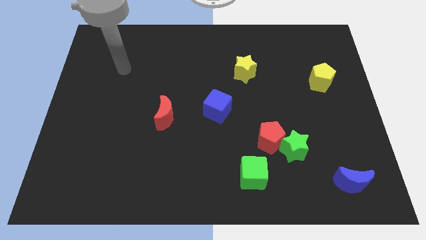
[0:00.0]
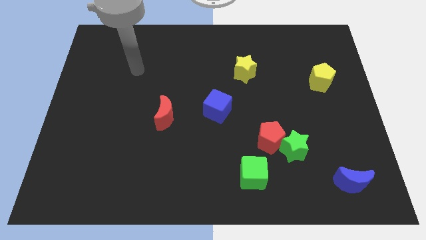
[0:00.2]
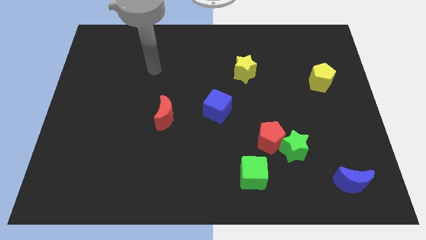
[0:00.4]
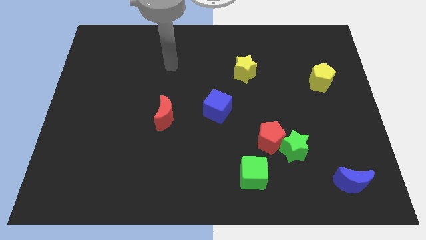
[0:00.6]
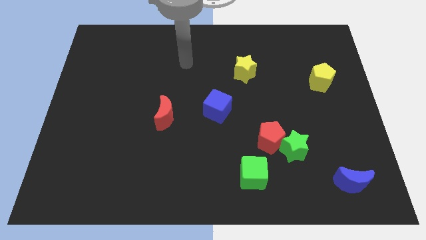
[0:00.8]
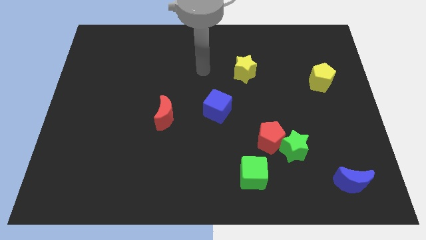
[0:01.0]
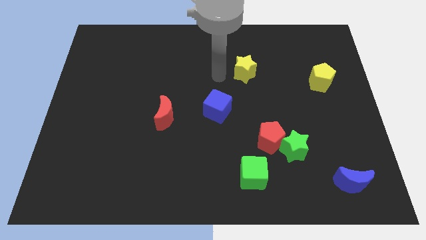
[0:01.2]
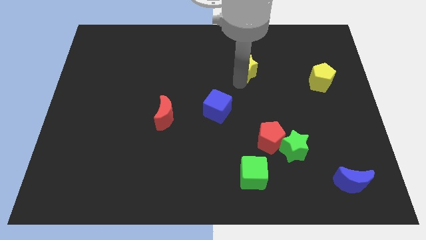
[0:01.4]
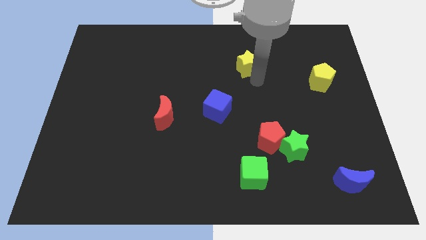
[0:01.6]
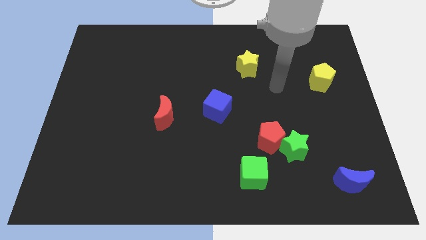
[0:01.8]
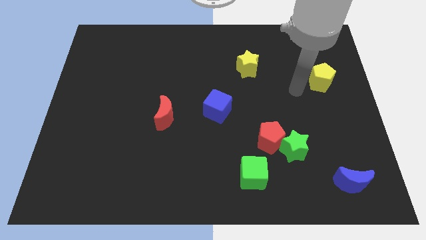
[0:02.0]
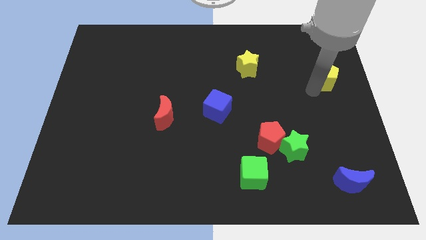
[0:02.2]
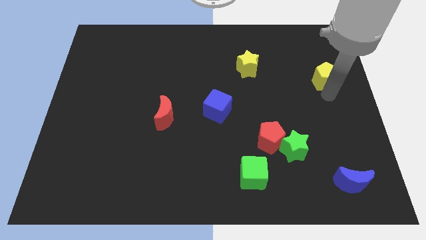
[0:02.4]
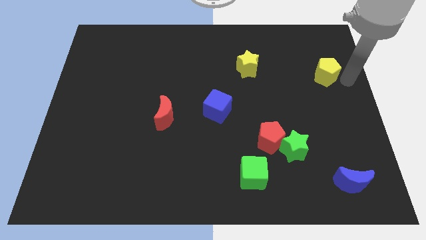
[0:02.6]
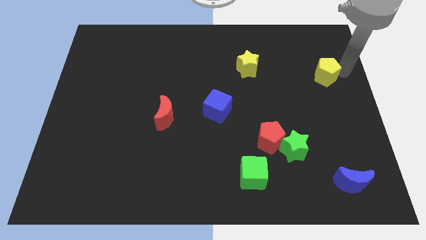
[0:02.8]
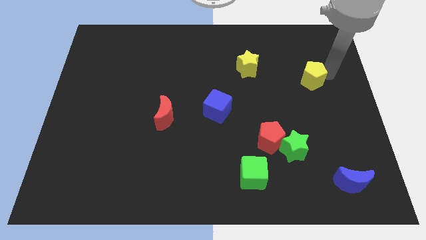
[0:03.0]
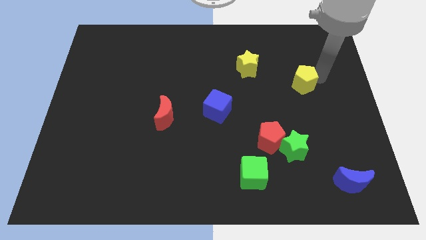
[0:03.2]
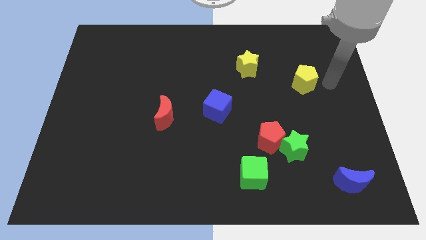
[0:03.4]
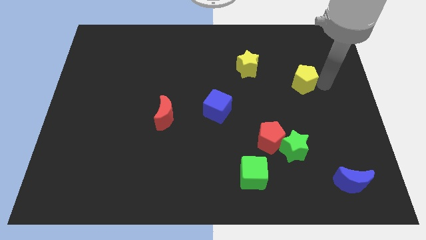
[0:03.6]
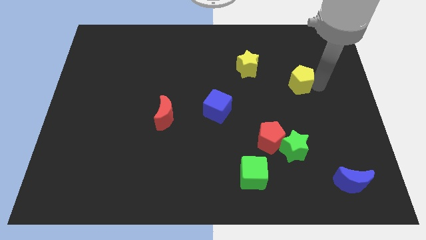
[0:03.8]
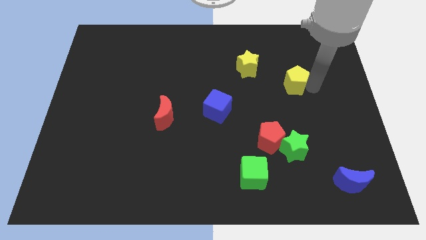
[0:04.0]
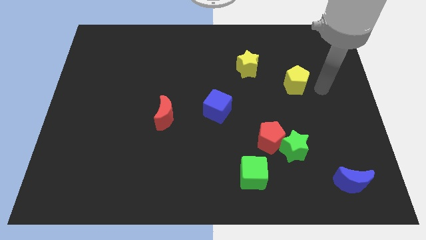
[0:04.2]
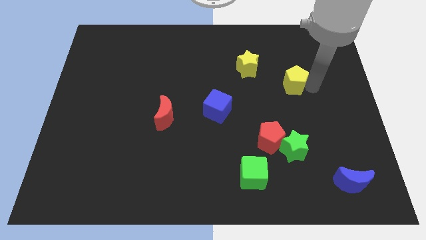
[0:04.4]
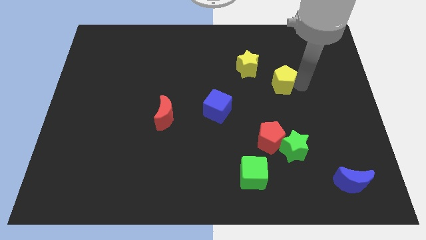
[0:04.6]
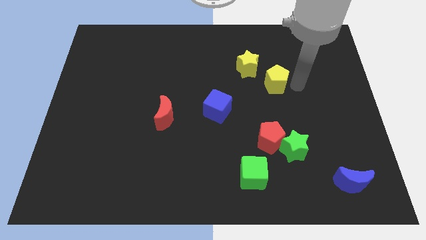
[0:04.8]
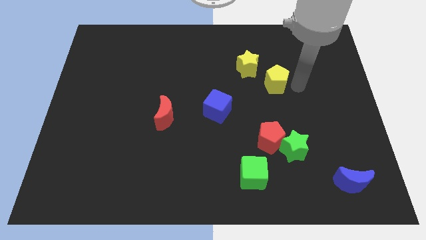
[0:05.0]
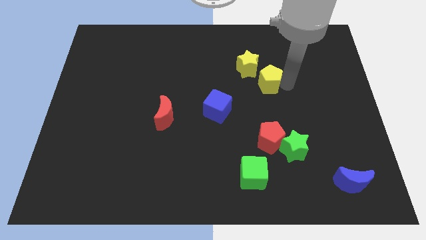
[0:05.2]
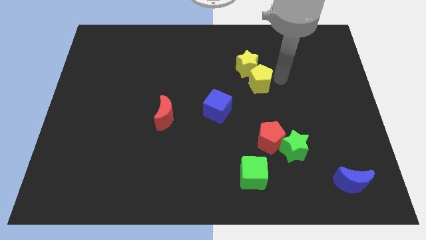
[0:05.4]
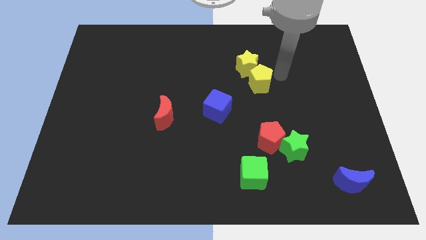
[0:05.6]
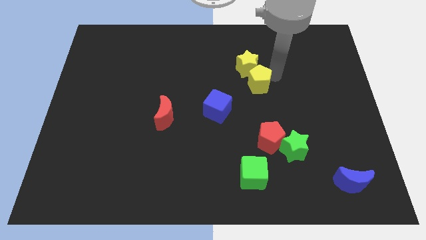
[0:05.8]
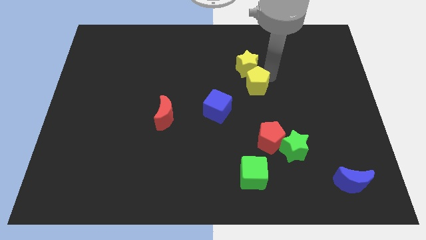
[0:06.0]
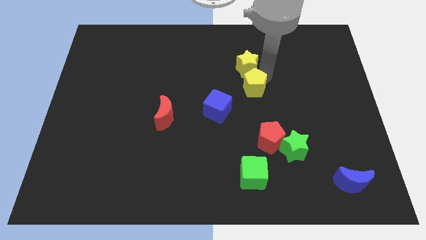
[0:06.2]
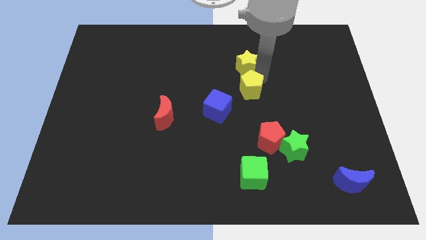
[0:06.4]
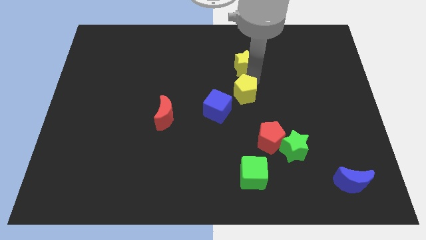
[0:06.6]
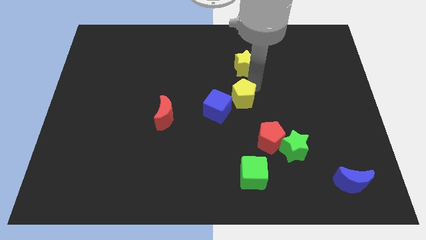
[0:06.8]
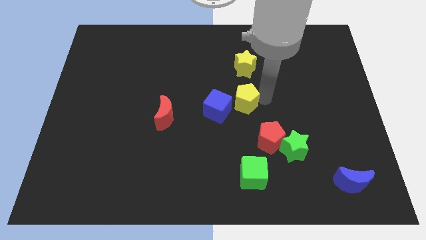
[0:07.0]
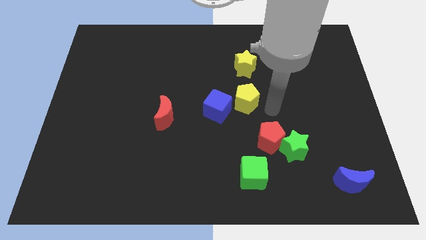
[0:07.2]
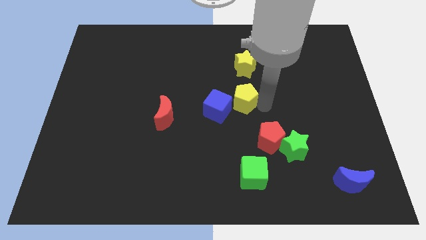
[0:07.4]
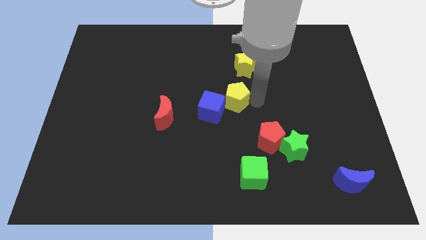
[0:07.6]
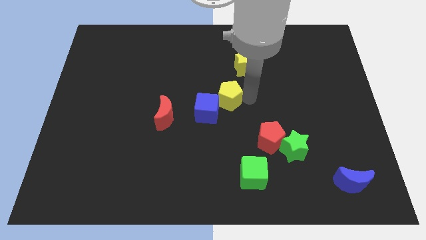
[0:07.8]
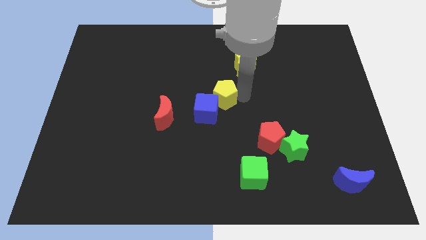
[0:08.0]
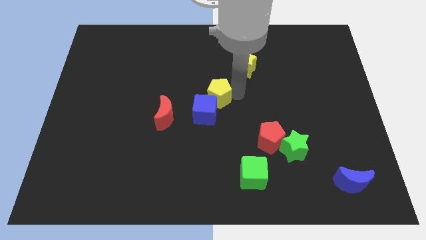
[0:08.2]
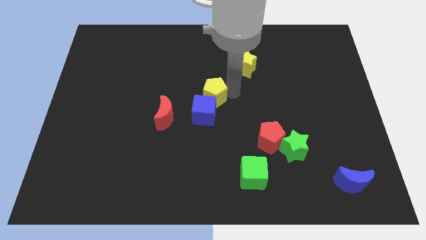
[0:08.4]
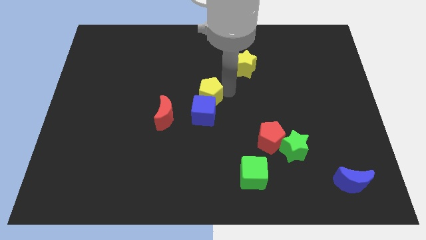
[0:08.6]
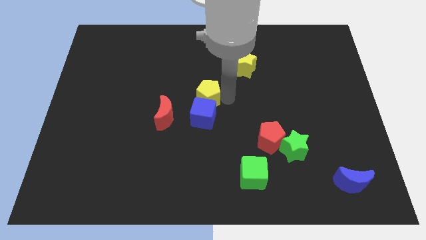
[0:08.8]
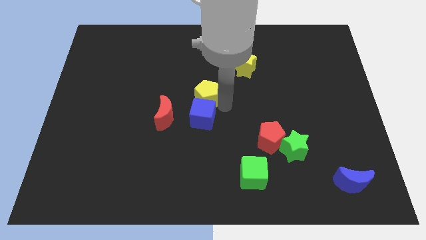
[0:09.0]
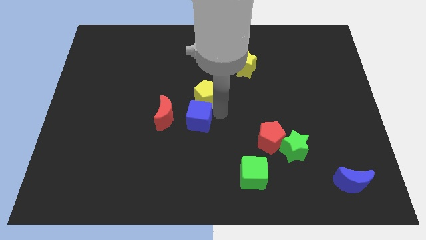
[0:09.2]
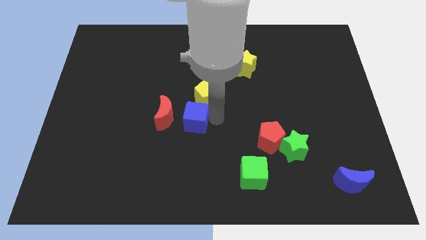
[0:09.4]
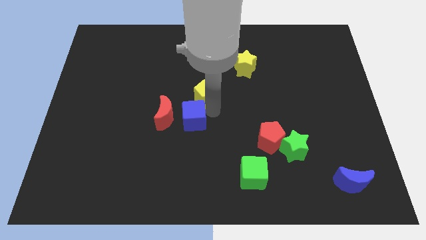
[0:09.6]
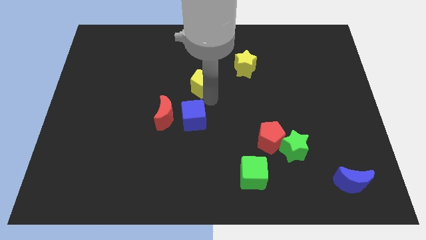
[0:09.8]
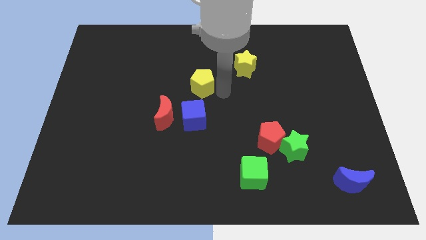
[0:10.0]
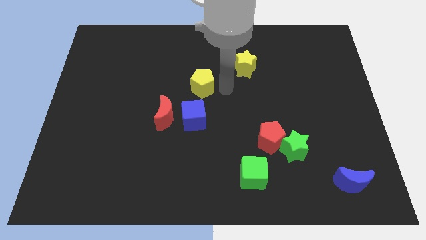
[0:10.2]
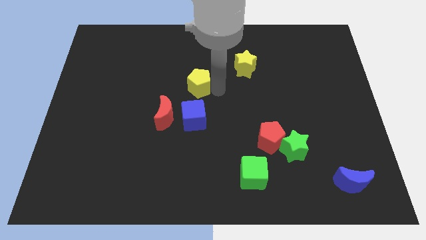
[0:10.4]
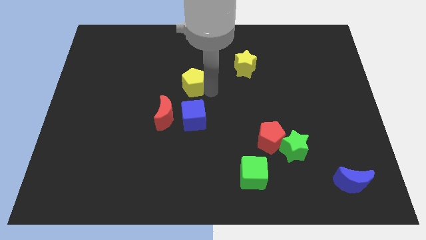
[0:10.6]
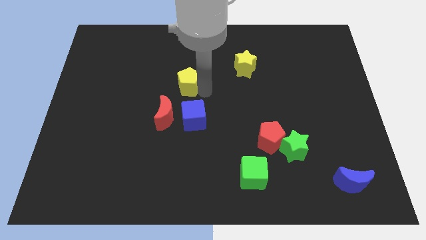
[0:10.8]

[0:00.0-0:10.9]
move the yellow pentagon to the top of the red moon

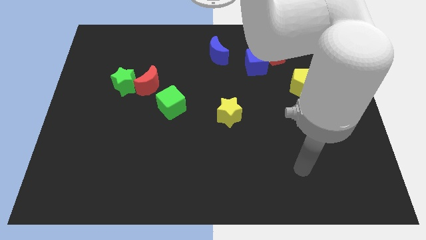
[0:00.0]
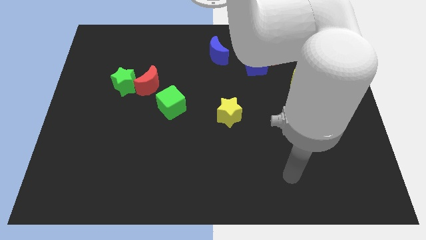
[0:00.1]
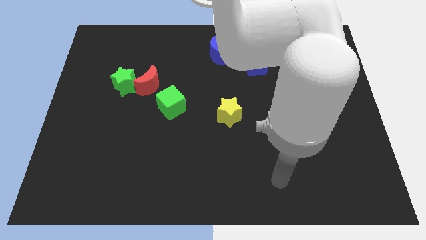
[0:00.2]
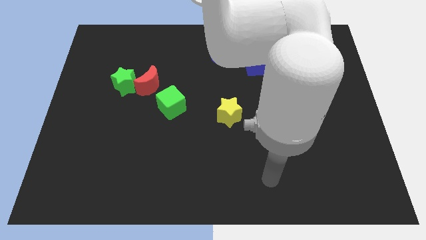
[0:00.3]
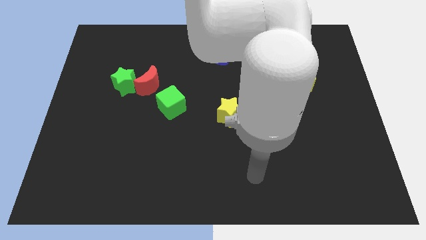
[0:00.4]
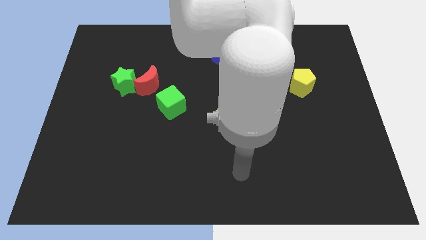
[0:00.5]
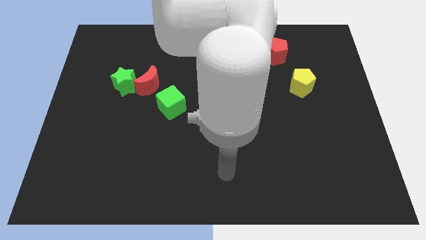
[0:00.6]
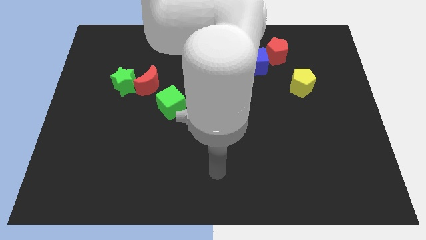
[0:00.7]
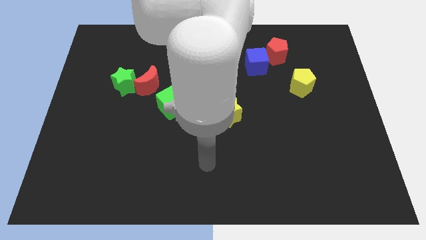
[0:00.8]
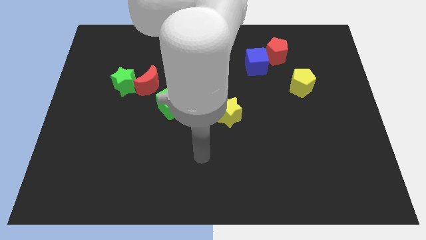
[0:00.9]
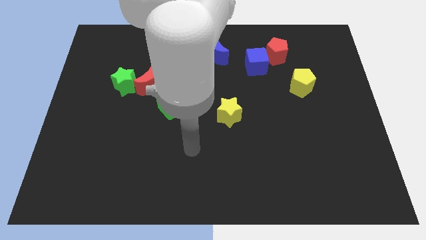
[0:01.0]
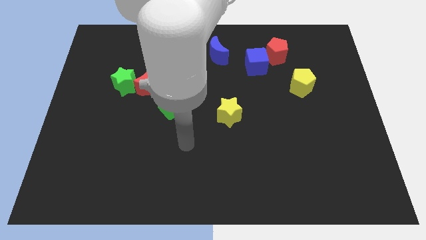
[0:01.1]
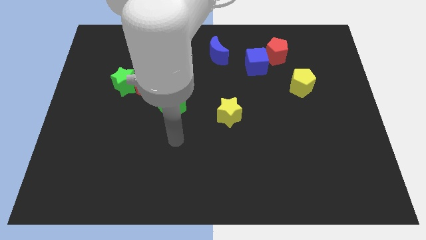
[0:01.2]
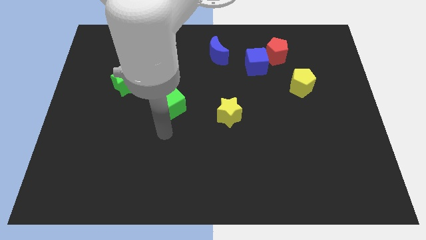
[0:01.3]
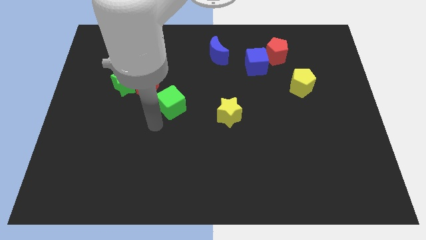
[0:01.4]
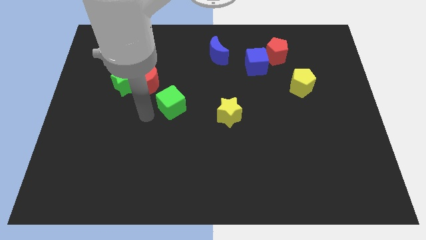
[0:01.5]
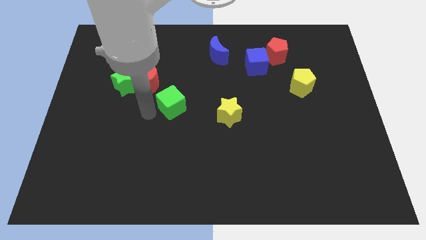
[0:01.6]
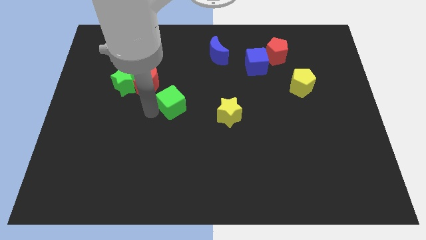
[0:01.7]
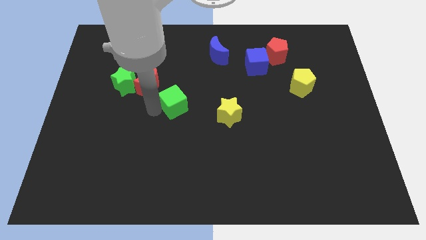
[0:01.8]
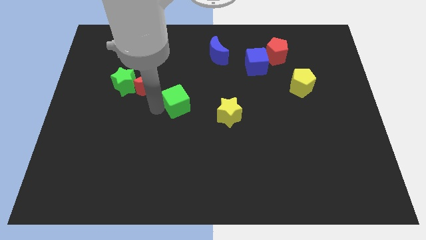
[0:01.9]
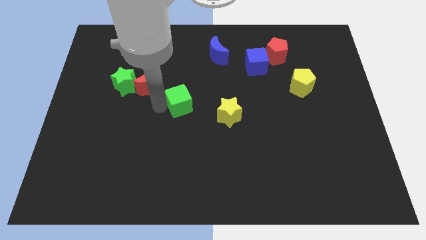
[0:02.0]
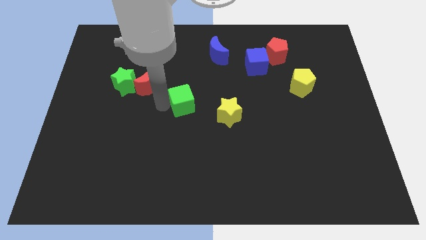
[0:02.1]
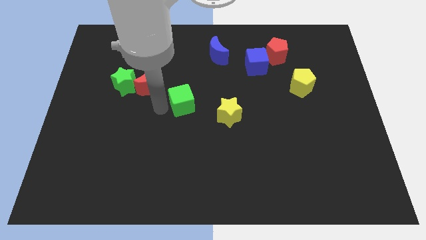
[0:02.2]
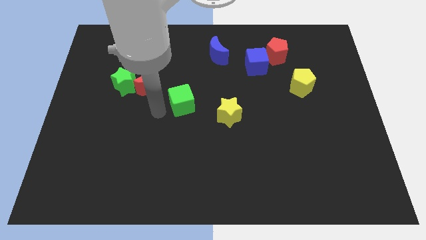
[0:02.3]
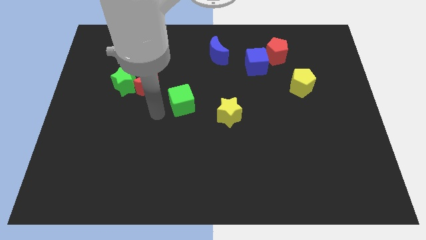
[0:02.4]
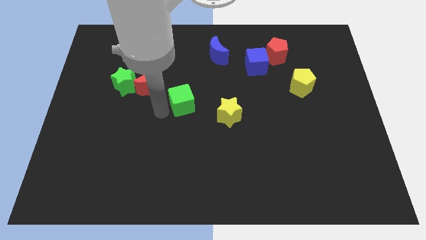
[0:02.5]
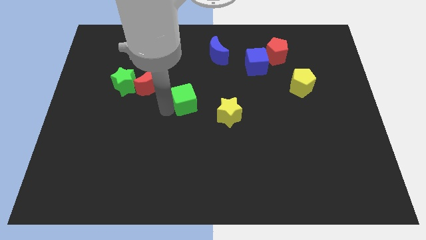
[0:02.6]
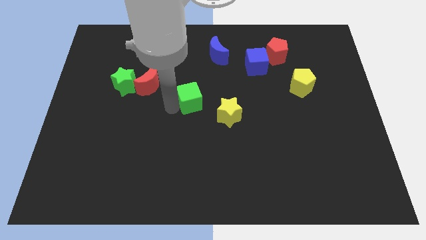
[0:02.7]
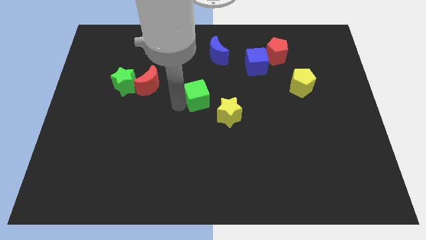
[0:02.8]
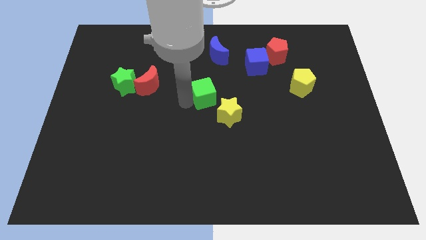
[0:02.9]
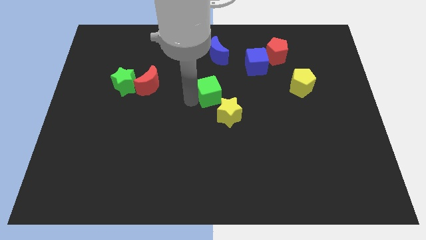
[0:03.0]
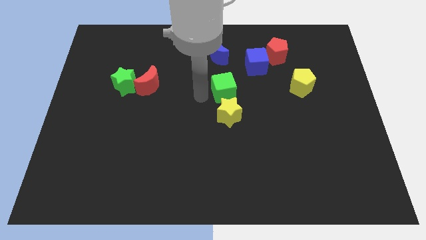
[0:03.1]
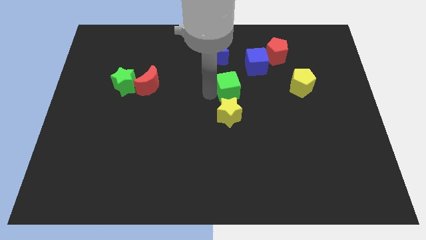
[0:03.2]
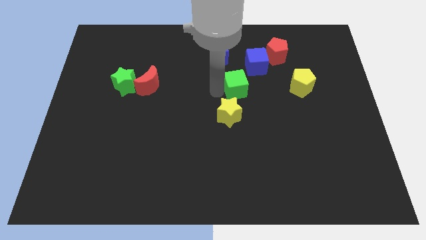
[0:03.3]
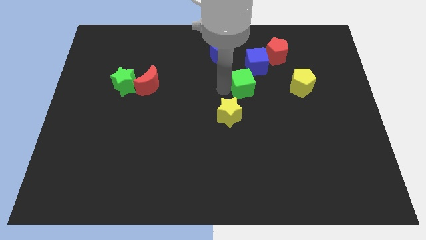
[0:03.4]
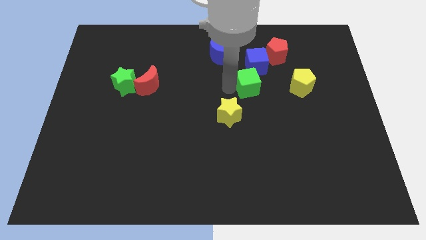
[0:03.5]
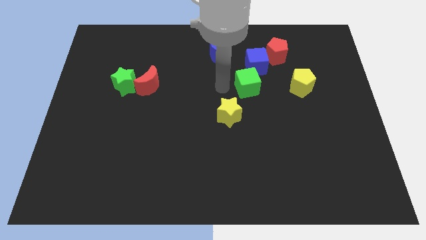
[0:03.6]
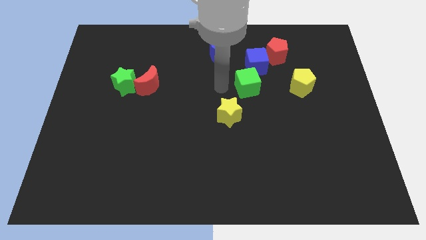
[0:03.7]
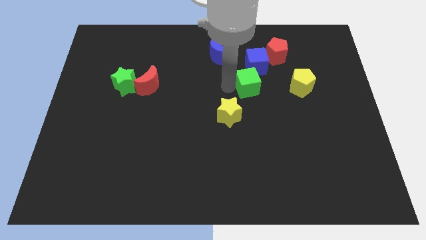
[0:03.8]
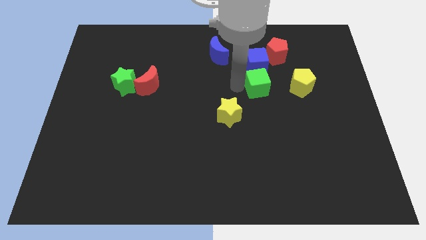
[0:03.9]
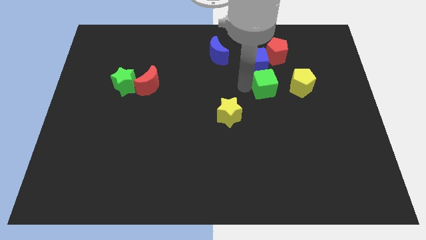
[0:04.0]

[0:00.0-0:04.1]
slide the green cube to the bottom of the red pentagon
